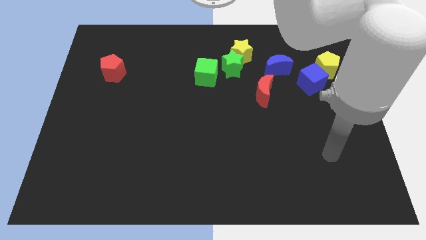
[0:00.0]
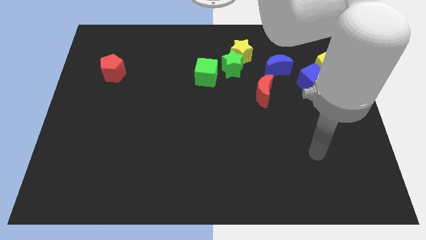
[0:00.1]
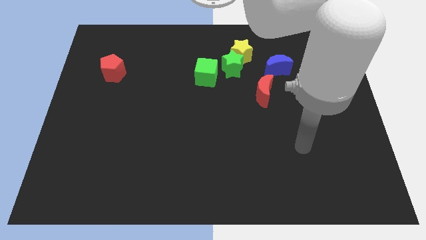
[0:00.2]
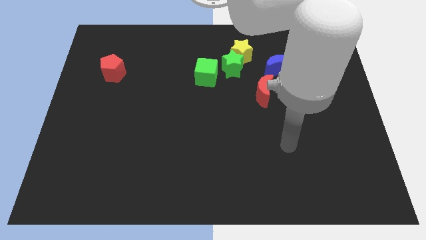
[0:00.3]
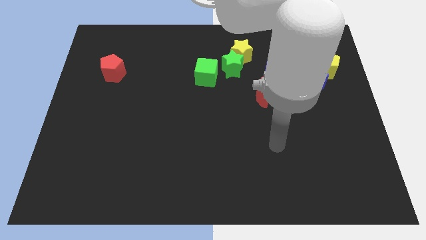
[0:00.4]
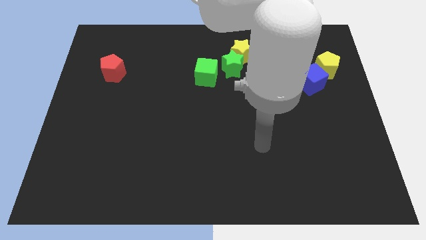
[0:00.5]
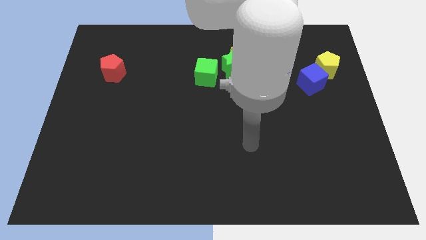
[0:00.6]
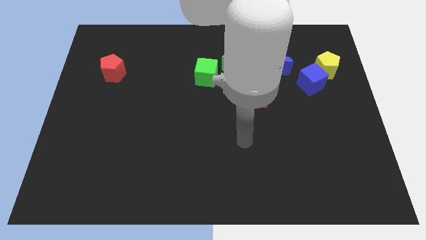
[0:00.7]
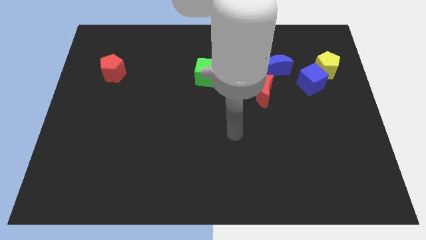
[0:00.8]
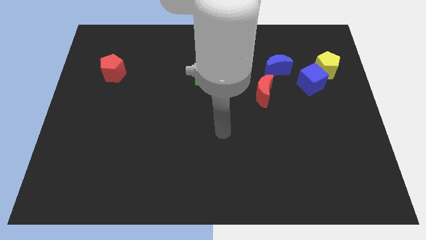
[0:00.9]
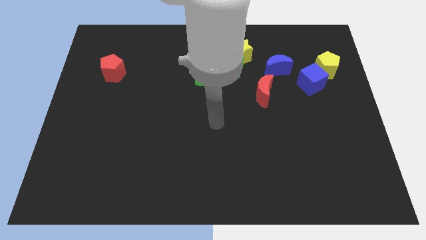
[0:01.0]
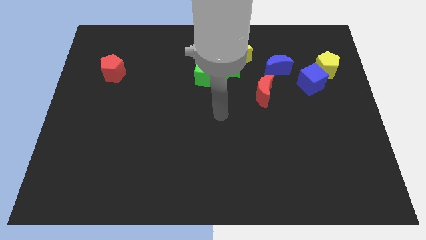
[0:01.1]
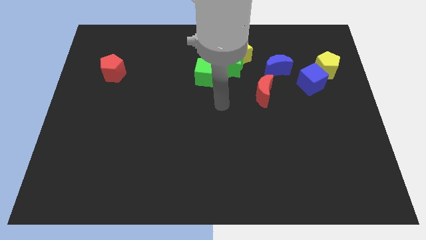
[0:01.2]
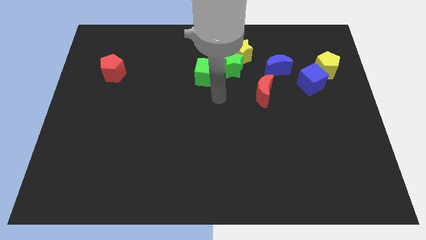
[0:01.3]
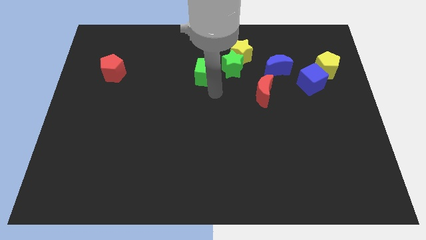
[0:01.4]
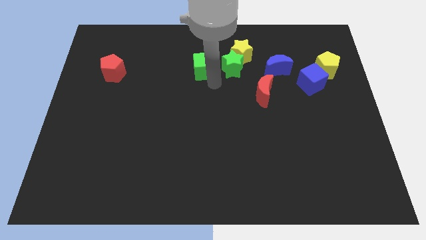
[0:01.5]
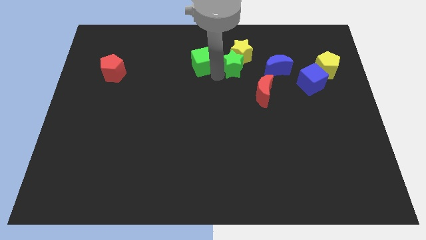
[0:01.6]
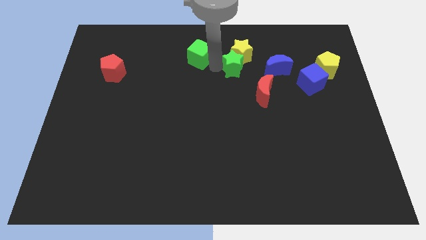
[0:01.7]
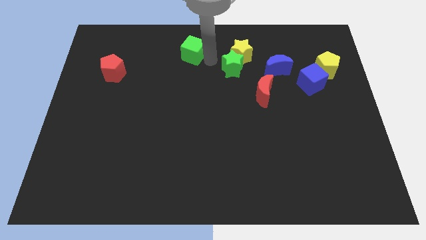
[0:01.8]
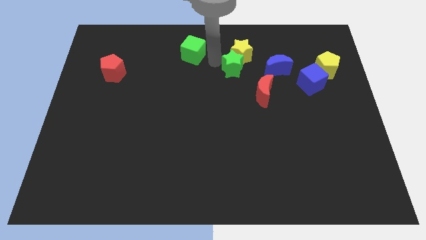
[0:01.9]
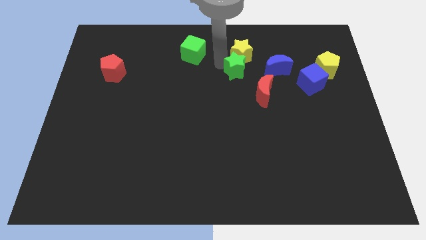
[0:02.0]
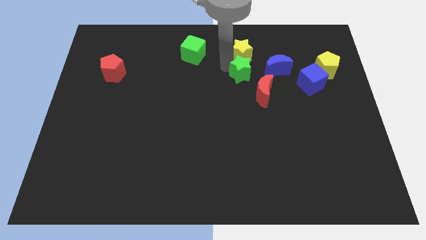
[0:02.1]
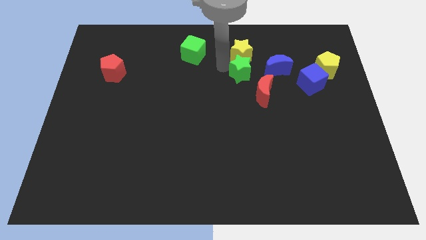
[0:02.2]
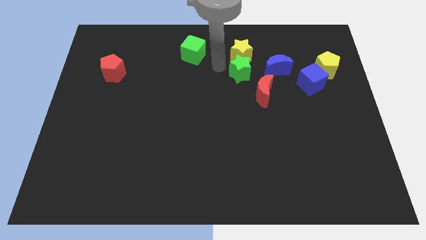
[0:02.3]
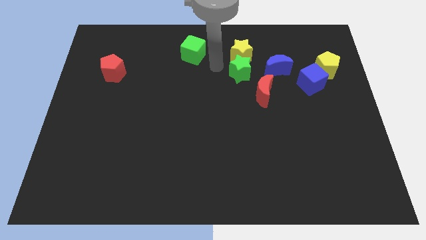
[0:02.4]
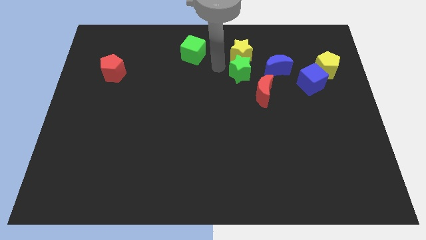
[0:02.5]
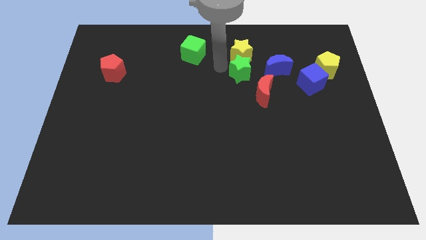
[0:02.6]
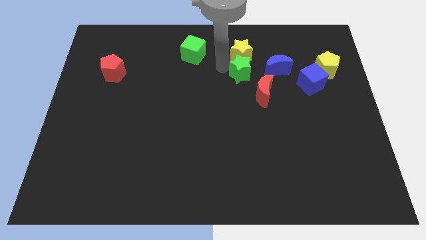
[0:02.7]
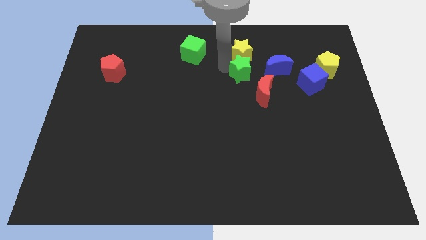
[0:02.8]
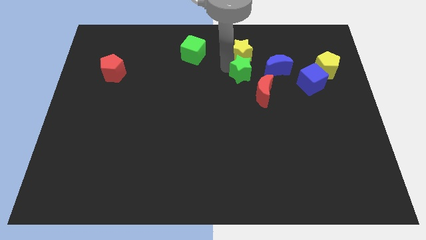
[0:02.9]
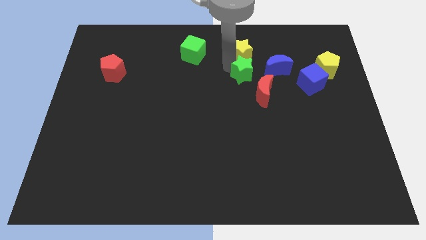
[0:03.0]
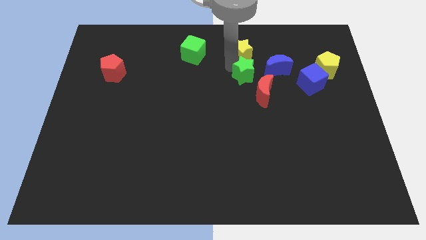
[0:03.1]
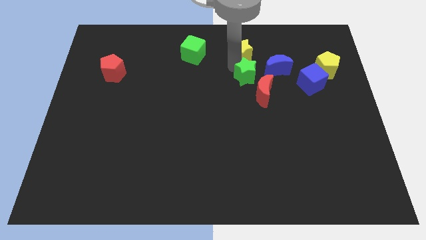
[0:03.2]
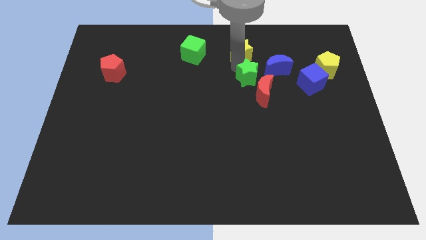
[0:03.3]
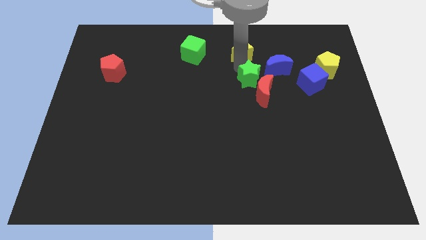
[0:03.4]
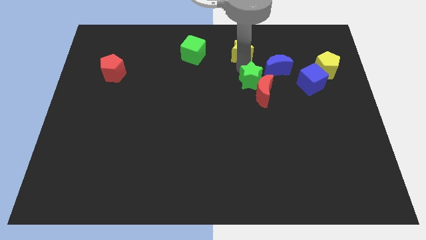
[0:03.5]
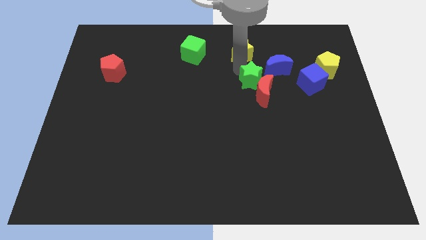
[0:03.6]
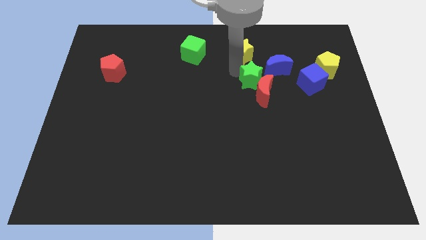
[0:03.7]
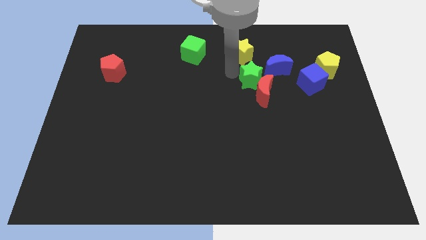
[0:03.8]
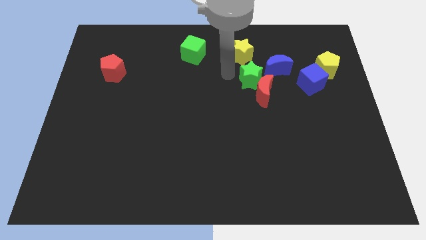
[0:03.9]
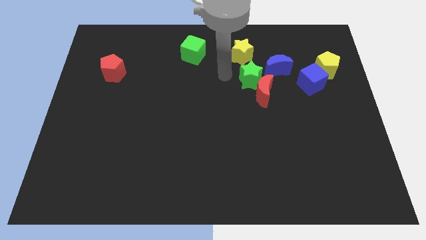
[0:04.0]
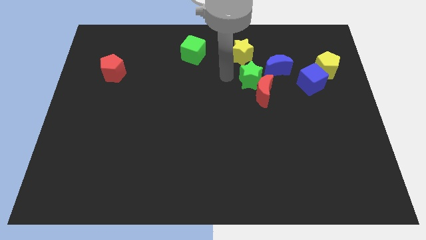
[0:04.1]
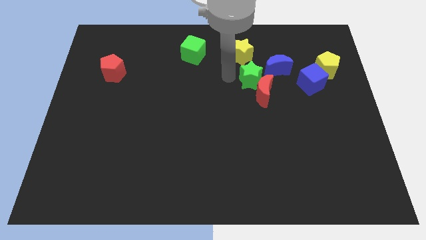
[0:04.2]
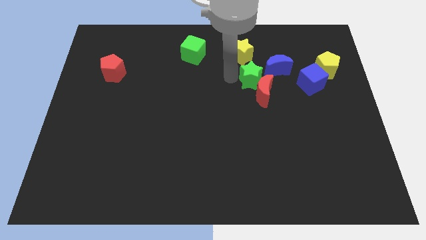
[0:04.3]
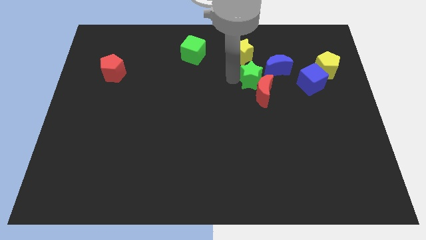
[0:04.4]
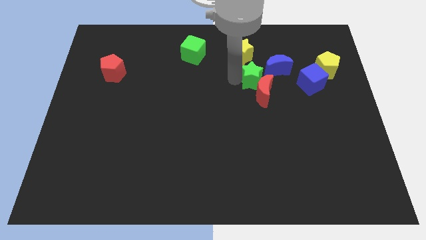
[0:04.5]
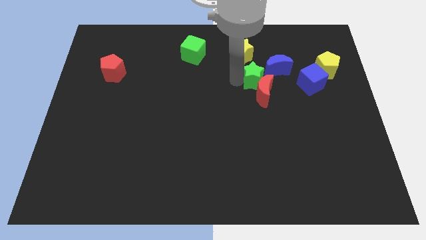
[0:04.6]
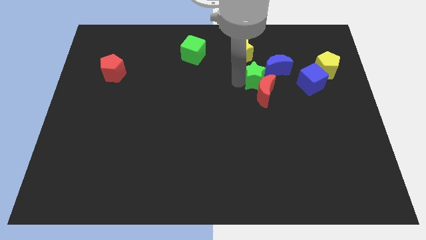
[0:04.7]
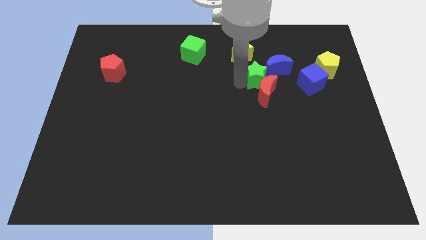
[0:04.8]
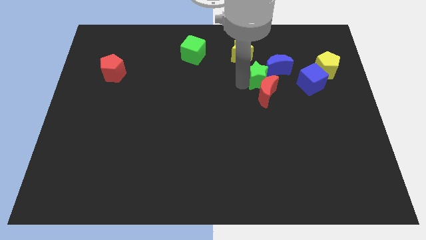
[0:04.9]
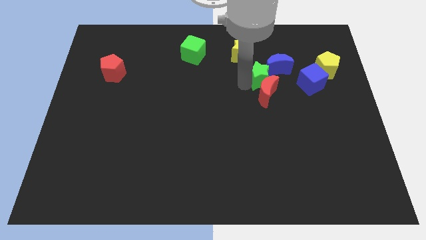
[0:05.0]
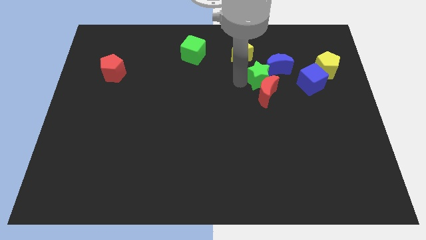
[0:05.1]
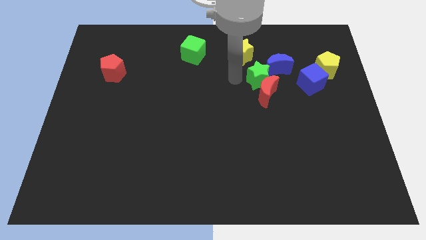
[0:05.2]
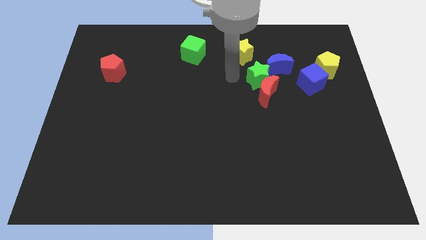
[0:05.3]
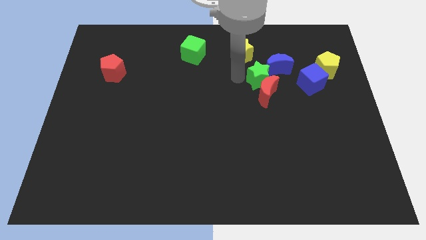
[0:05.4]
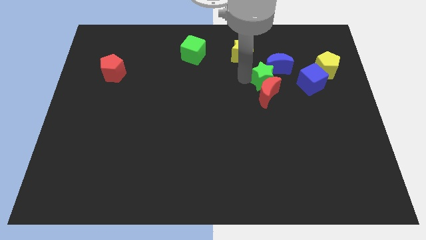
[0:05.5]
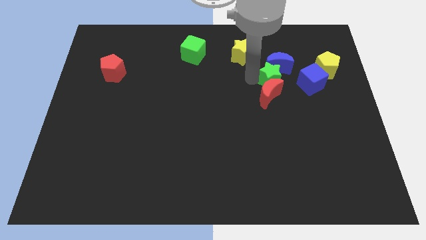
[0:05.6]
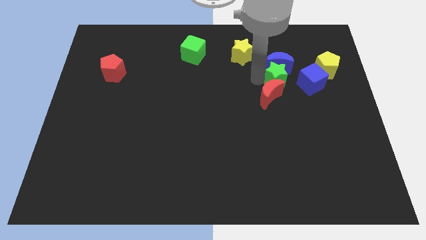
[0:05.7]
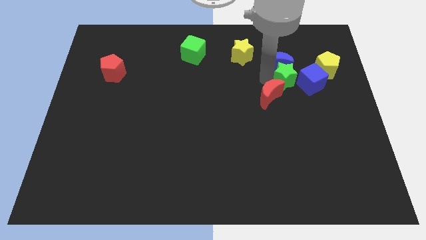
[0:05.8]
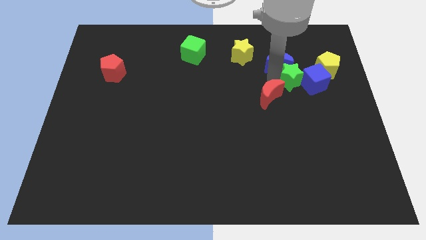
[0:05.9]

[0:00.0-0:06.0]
push the green star towards the blue cube
